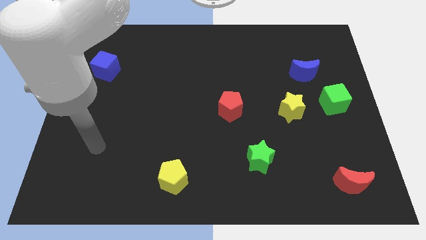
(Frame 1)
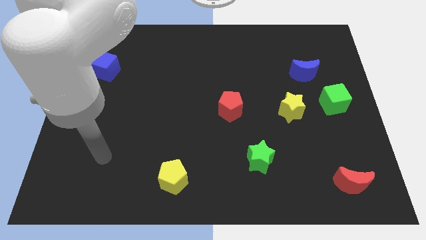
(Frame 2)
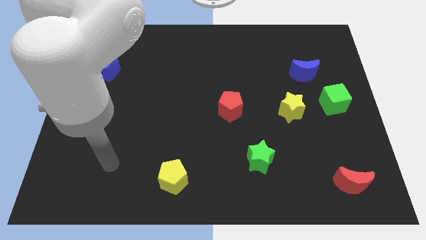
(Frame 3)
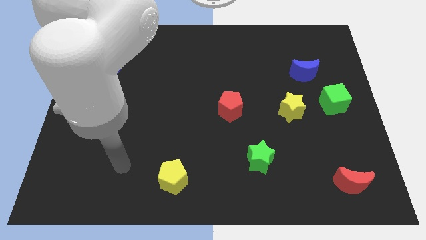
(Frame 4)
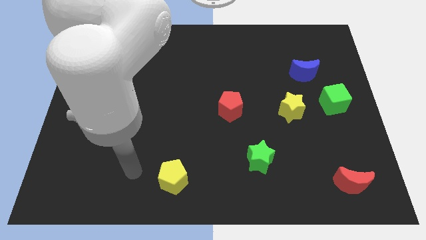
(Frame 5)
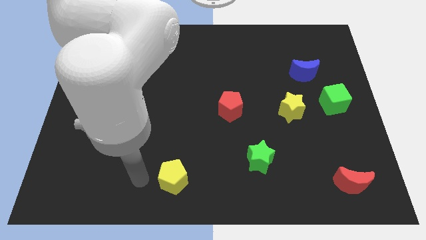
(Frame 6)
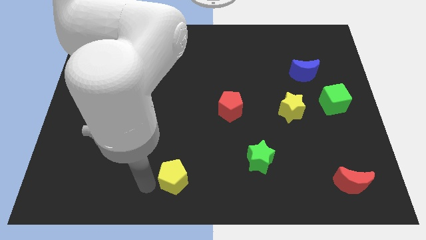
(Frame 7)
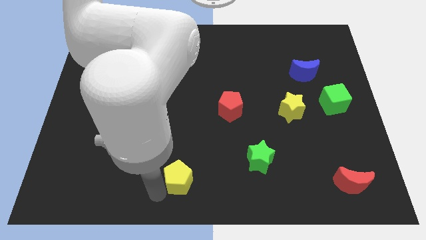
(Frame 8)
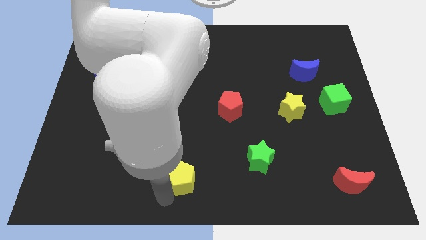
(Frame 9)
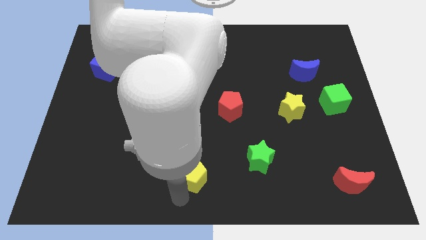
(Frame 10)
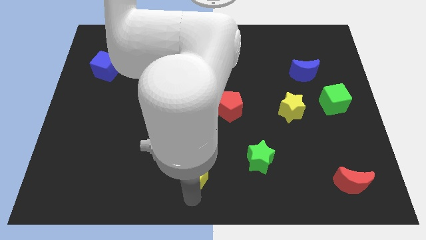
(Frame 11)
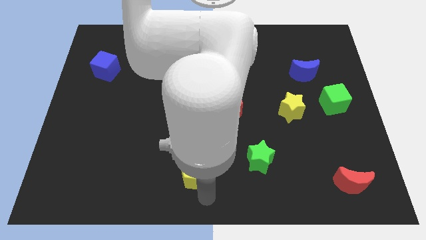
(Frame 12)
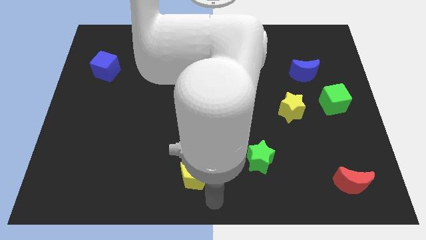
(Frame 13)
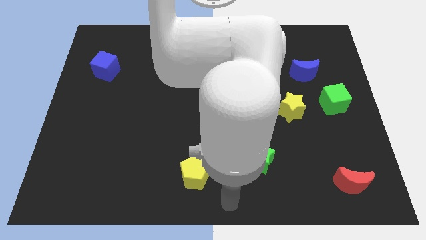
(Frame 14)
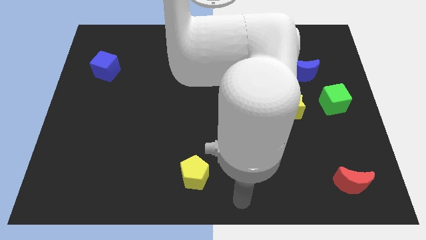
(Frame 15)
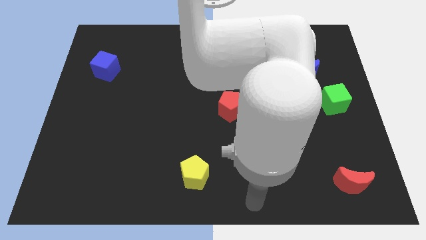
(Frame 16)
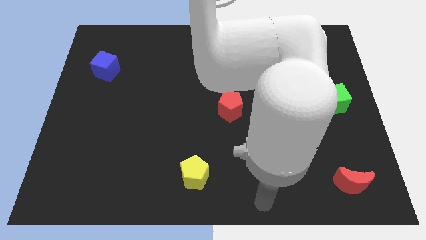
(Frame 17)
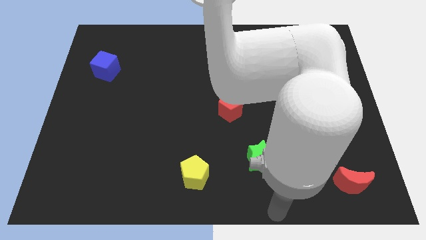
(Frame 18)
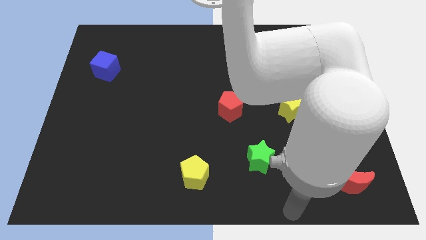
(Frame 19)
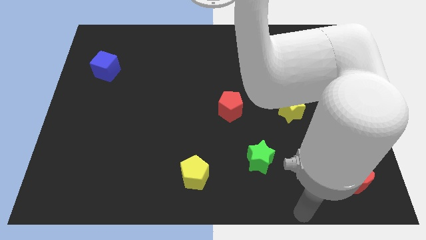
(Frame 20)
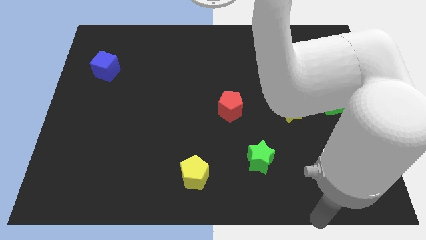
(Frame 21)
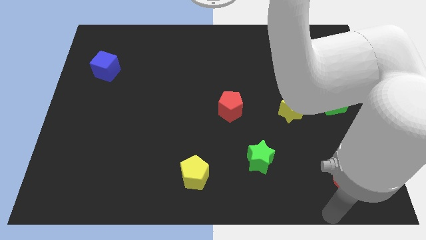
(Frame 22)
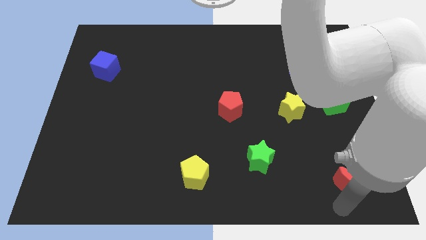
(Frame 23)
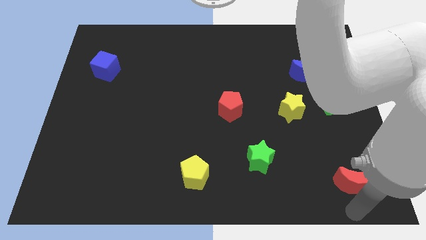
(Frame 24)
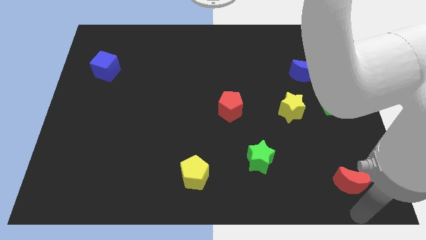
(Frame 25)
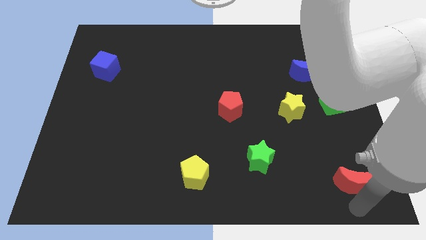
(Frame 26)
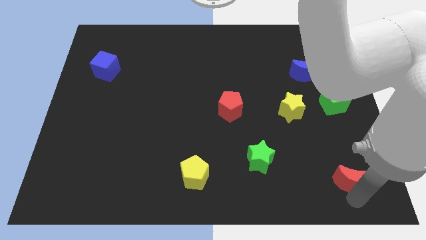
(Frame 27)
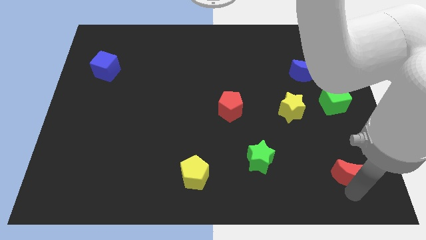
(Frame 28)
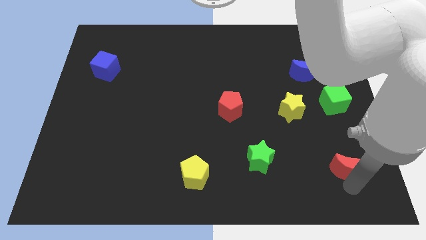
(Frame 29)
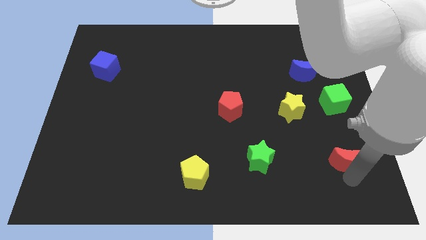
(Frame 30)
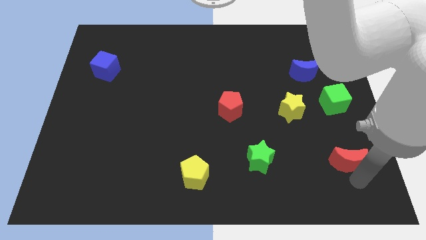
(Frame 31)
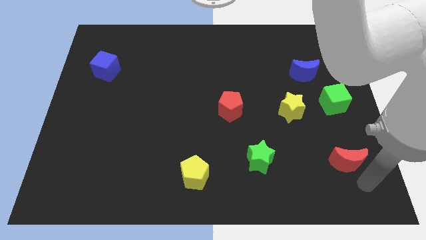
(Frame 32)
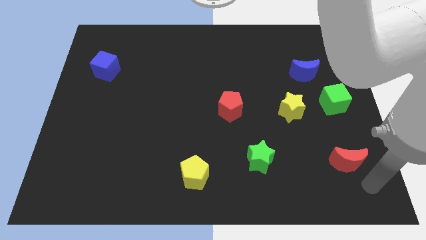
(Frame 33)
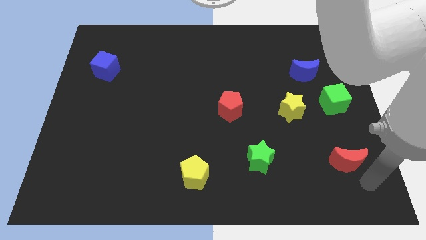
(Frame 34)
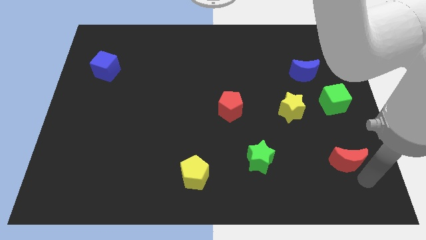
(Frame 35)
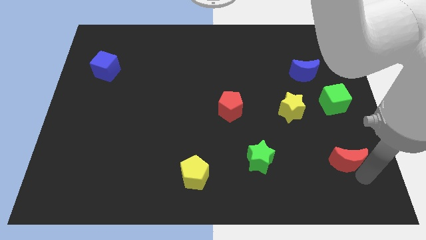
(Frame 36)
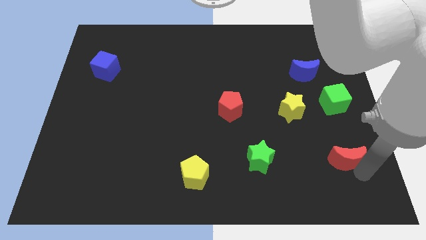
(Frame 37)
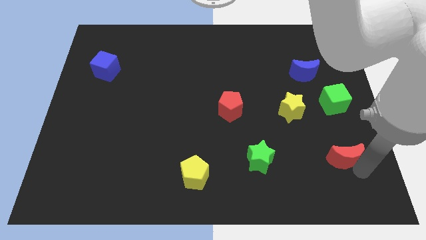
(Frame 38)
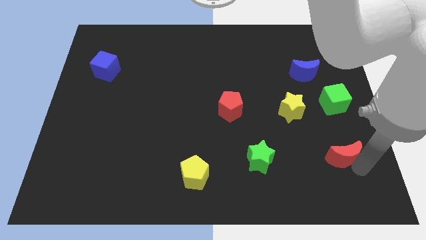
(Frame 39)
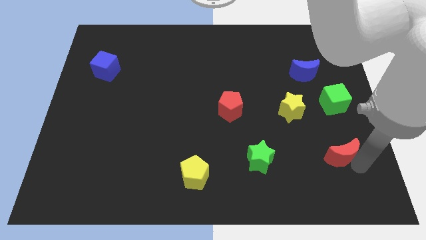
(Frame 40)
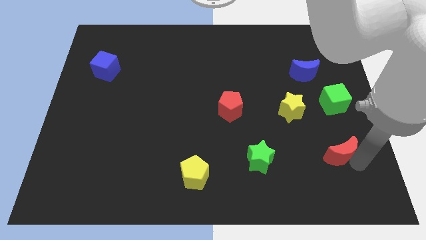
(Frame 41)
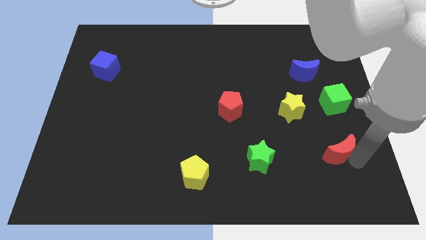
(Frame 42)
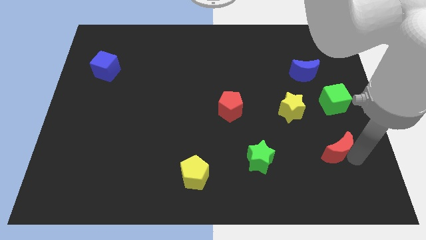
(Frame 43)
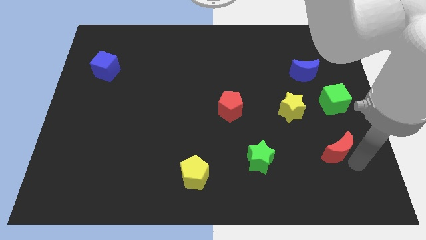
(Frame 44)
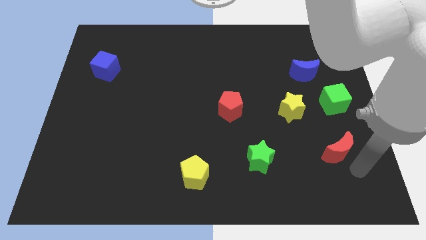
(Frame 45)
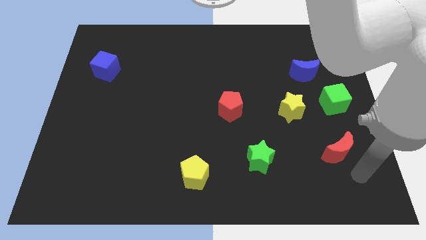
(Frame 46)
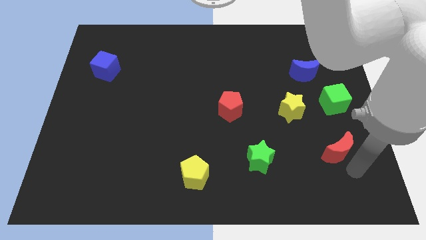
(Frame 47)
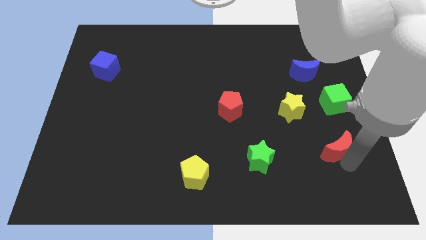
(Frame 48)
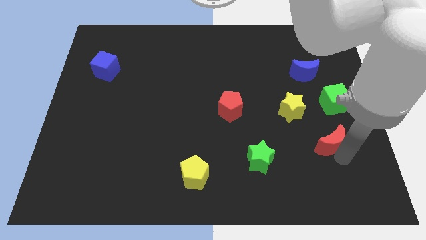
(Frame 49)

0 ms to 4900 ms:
slide the red moon to the bottom right side of the yellow star

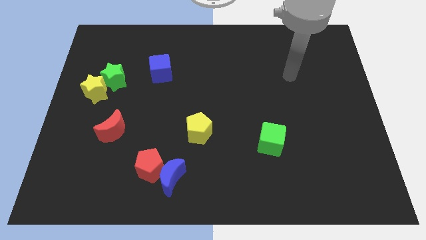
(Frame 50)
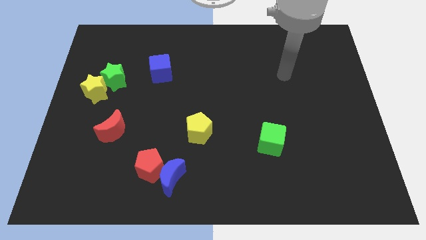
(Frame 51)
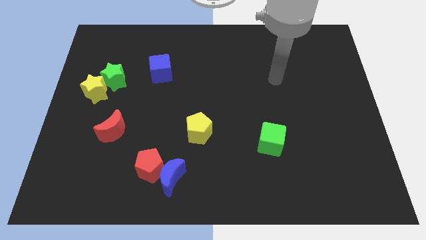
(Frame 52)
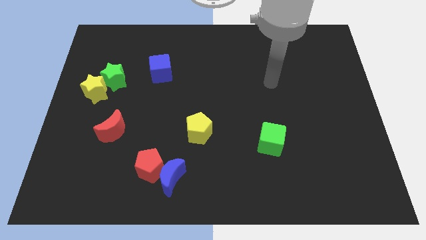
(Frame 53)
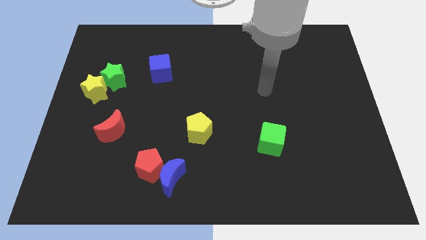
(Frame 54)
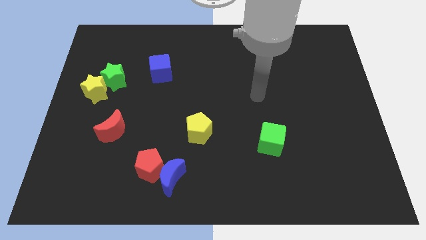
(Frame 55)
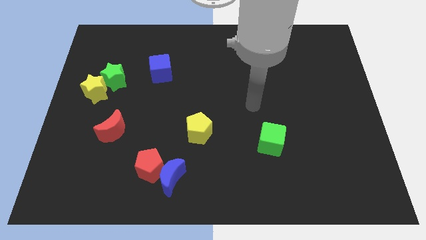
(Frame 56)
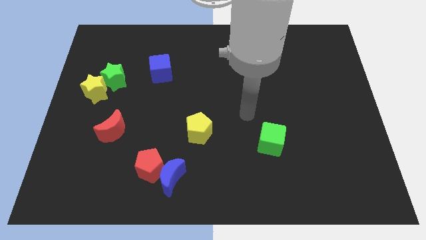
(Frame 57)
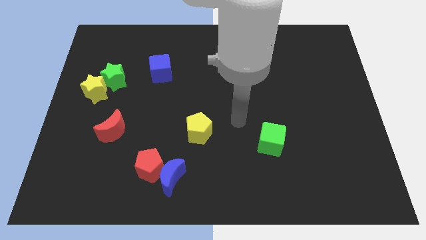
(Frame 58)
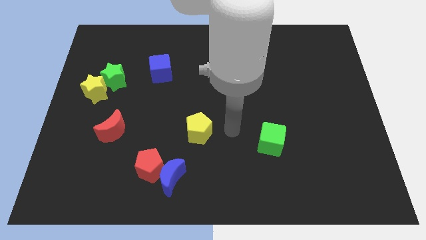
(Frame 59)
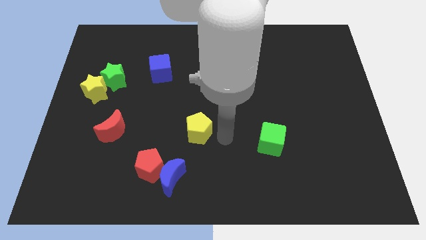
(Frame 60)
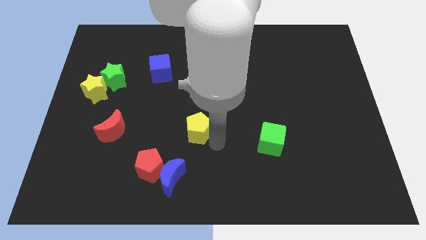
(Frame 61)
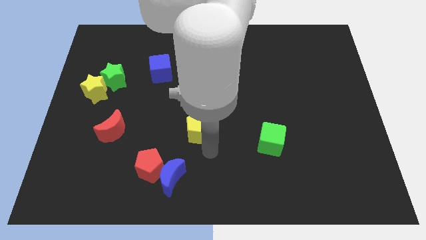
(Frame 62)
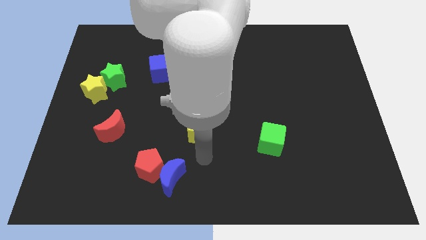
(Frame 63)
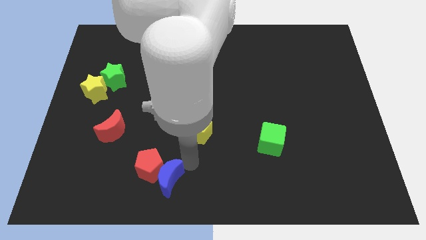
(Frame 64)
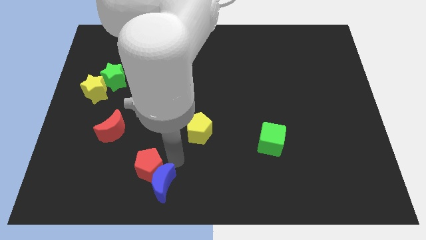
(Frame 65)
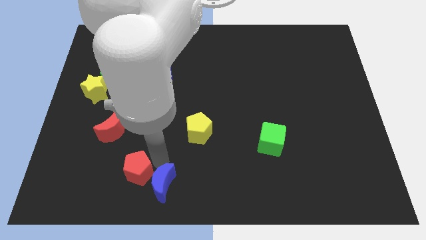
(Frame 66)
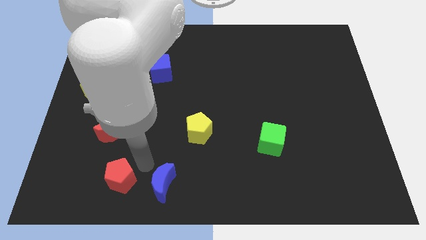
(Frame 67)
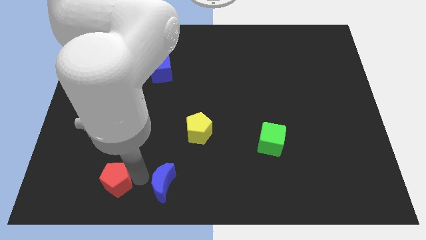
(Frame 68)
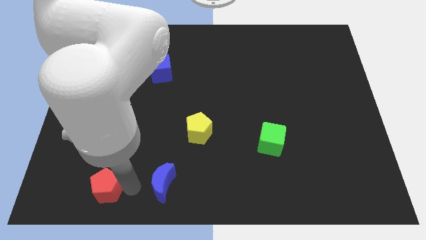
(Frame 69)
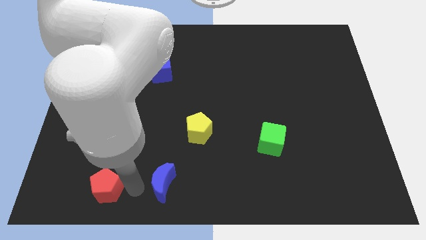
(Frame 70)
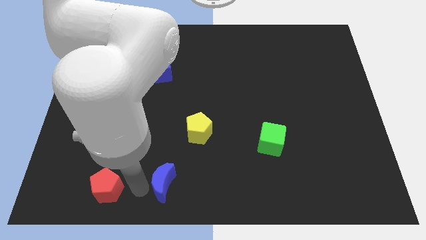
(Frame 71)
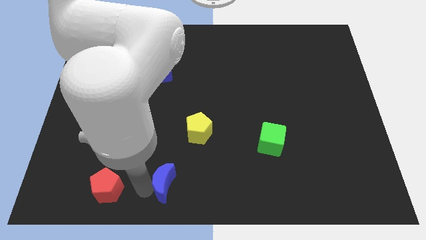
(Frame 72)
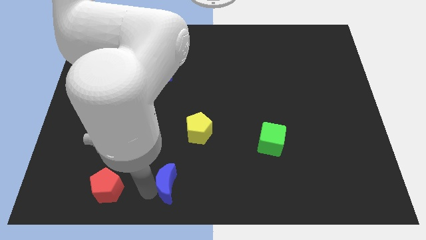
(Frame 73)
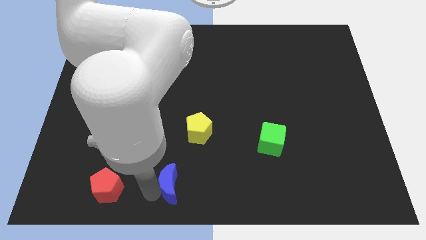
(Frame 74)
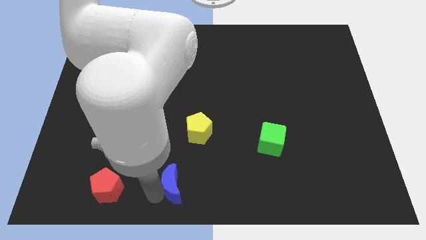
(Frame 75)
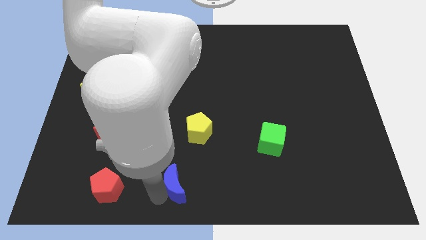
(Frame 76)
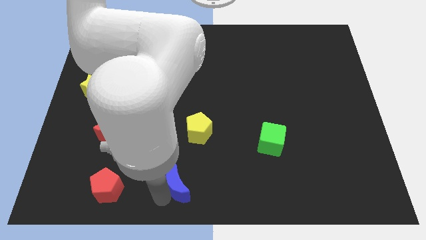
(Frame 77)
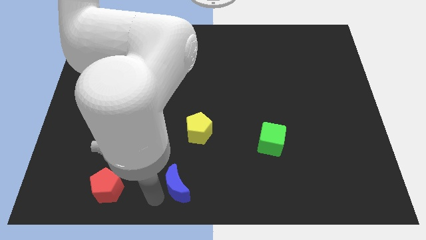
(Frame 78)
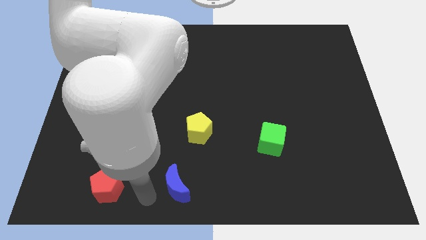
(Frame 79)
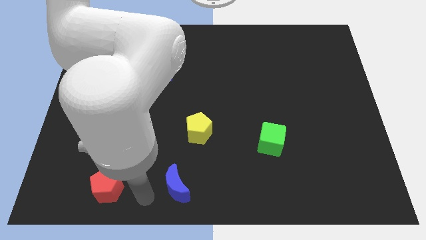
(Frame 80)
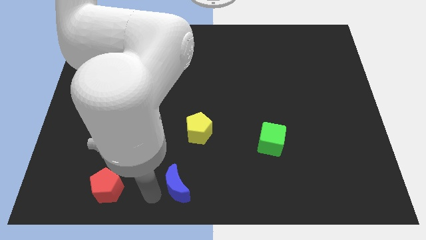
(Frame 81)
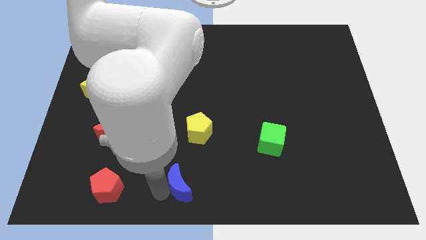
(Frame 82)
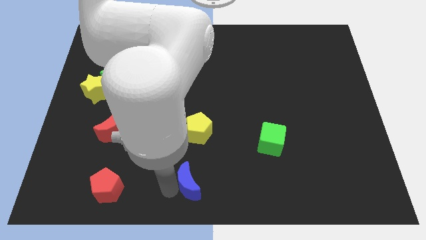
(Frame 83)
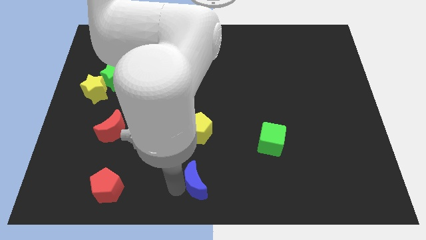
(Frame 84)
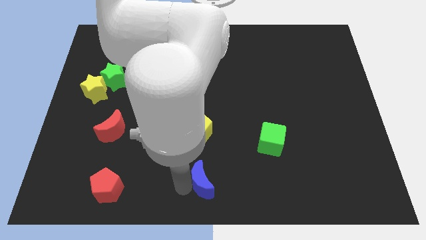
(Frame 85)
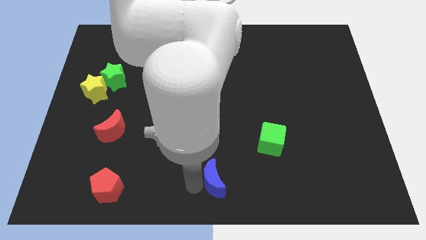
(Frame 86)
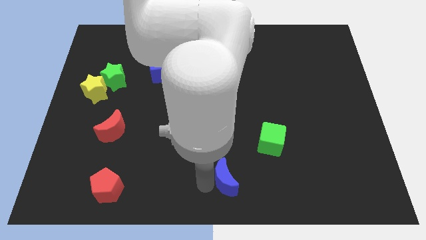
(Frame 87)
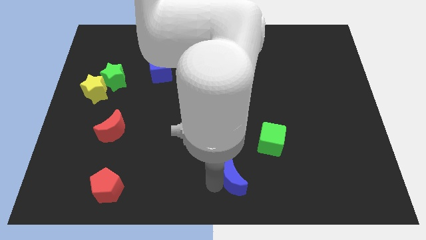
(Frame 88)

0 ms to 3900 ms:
push the blue moon to the bottom left side of the green cube
